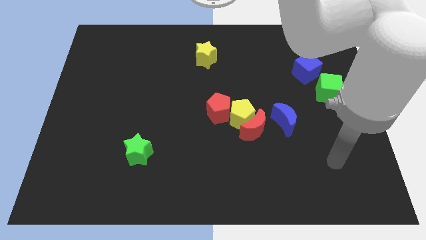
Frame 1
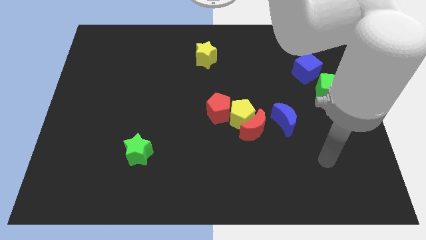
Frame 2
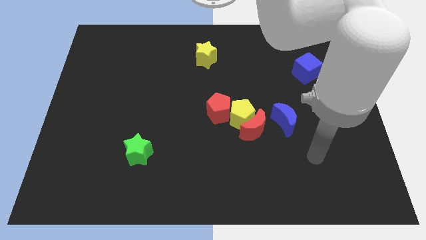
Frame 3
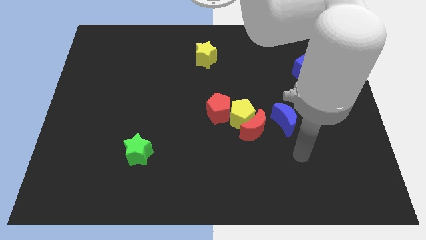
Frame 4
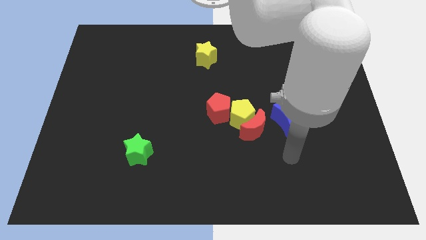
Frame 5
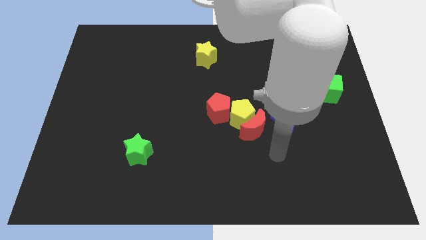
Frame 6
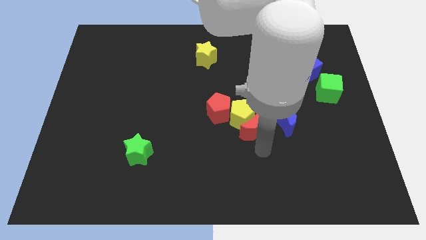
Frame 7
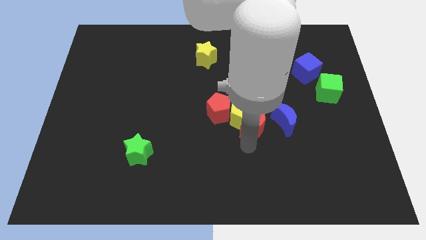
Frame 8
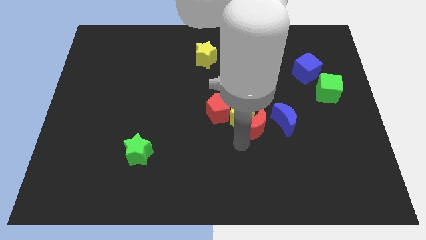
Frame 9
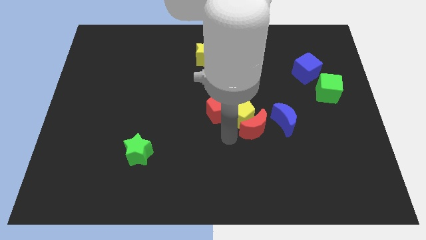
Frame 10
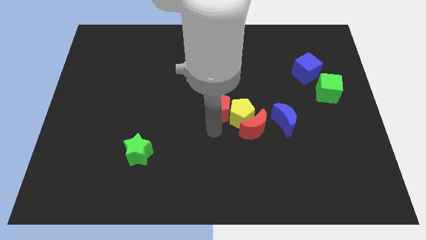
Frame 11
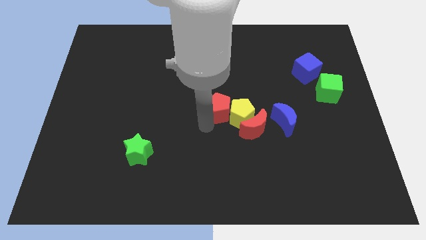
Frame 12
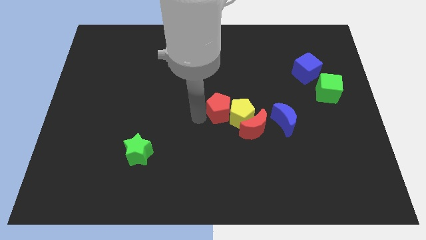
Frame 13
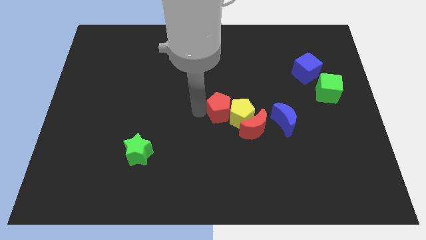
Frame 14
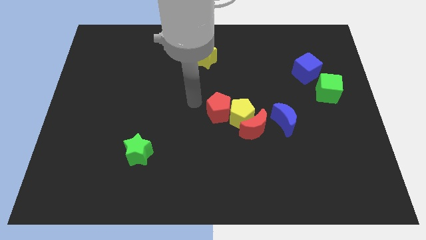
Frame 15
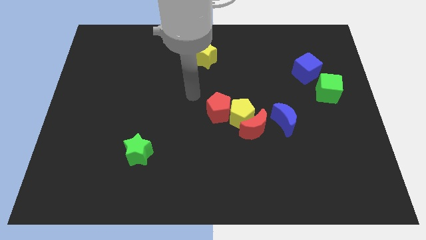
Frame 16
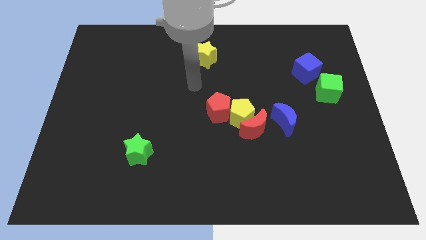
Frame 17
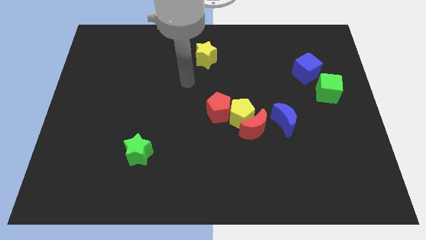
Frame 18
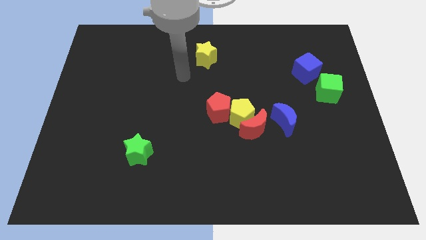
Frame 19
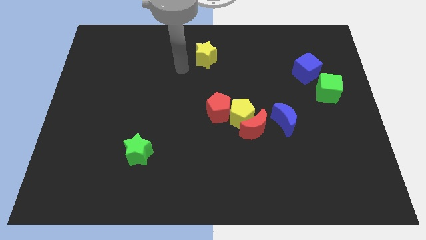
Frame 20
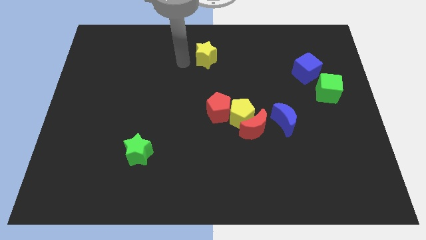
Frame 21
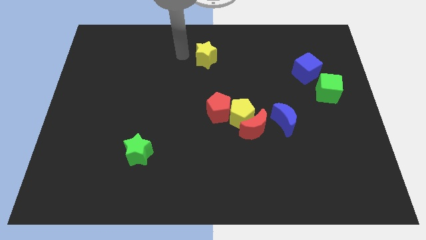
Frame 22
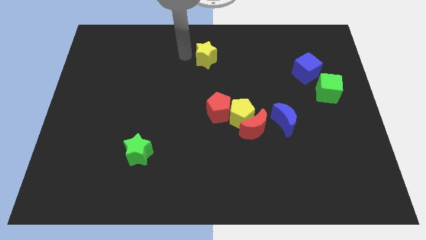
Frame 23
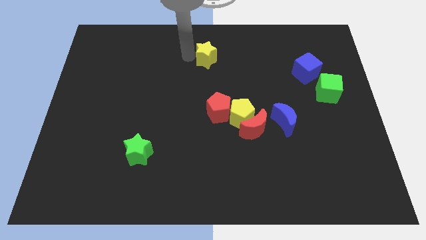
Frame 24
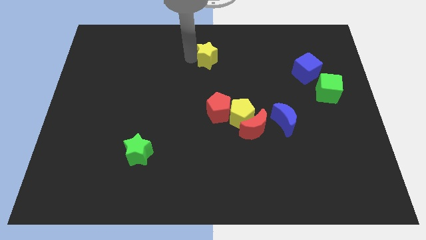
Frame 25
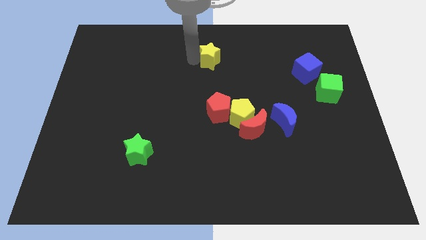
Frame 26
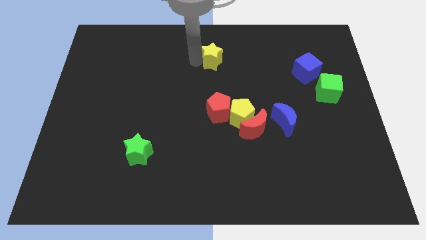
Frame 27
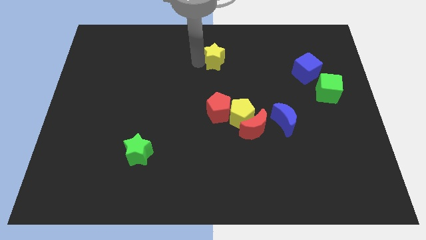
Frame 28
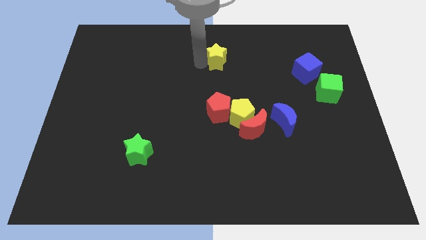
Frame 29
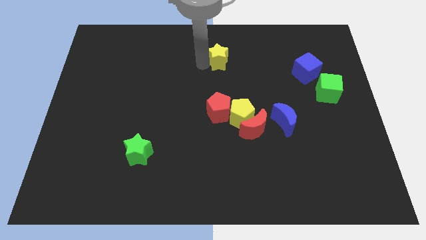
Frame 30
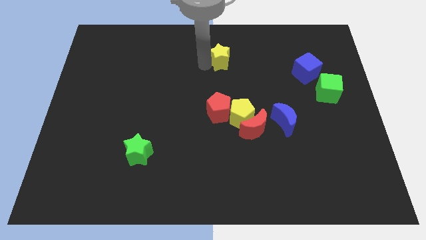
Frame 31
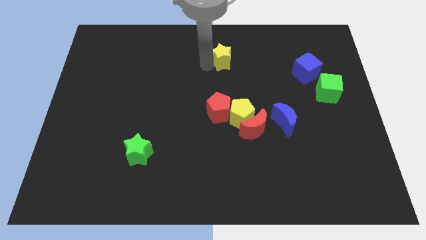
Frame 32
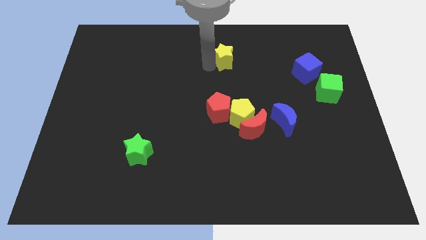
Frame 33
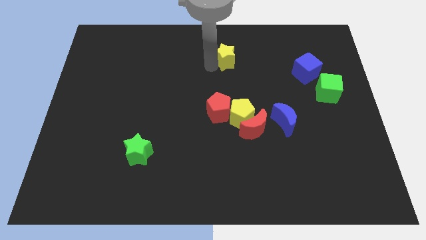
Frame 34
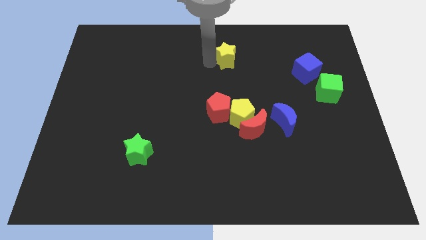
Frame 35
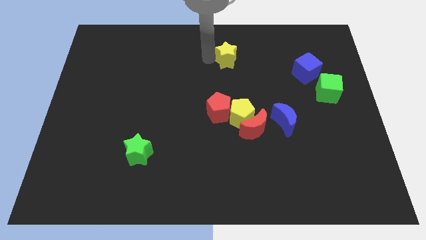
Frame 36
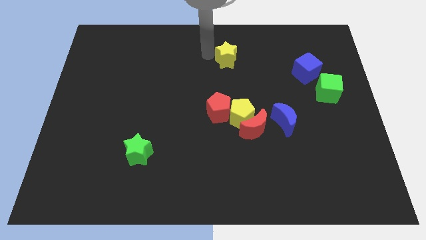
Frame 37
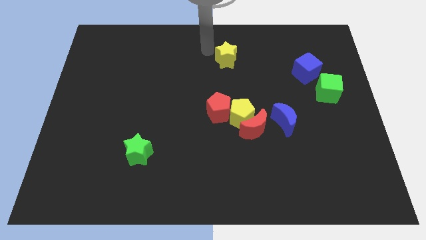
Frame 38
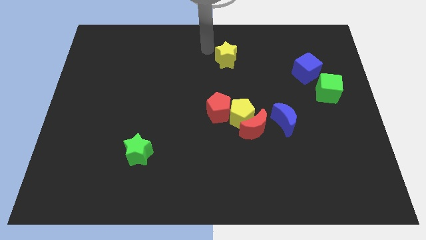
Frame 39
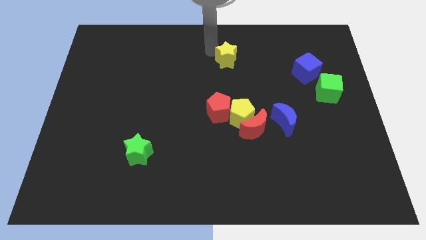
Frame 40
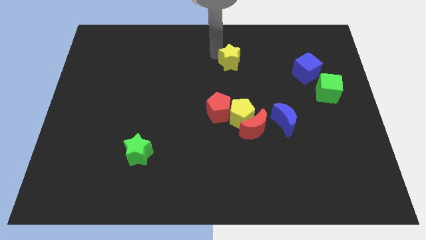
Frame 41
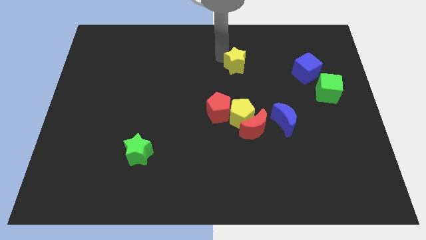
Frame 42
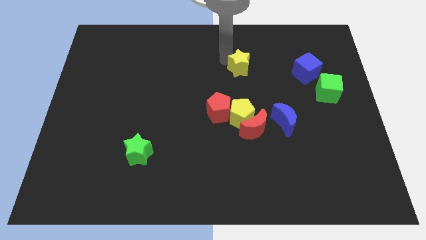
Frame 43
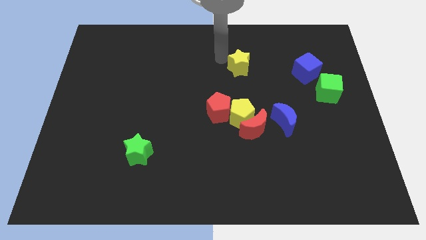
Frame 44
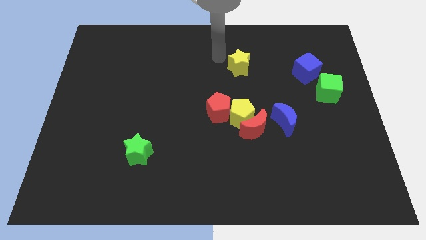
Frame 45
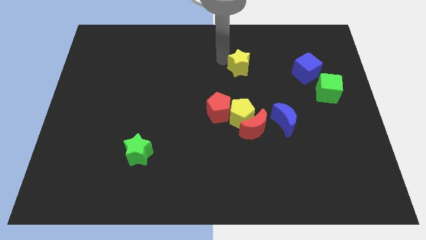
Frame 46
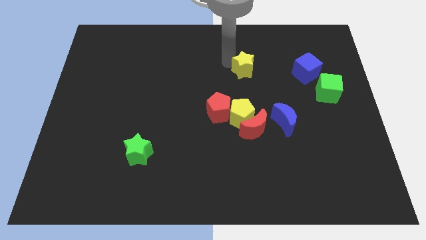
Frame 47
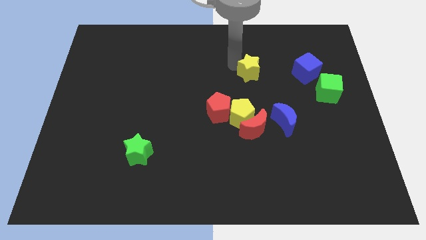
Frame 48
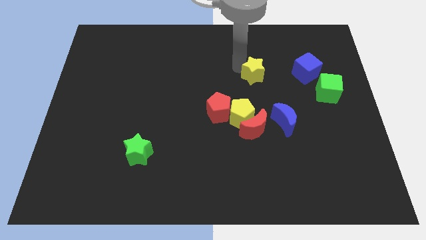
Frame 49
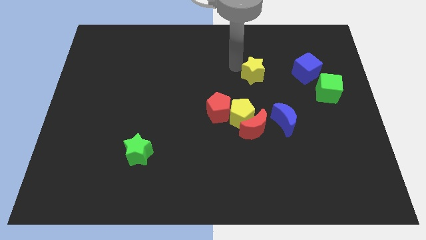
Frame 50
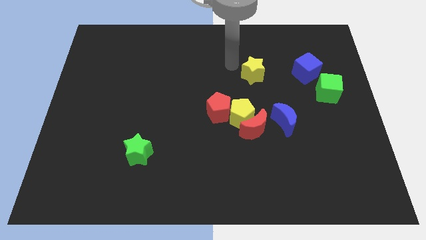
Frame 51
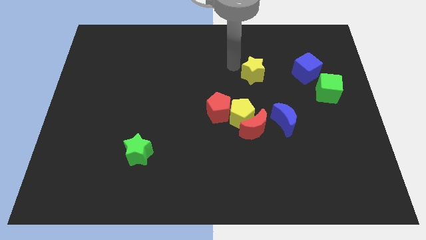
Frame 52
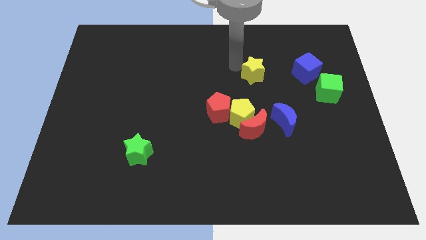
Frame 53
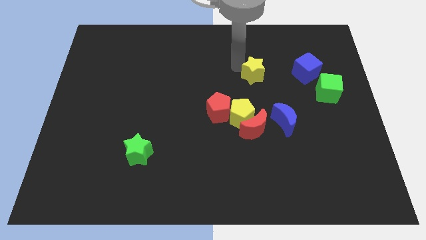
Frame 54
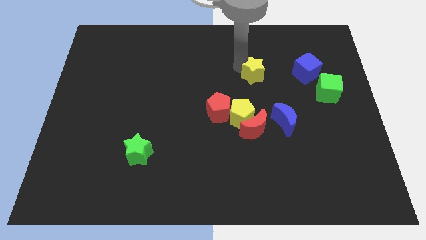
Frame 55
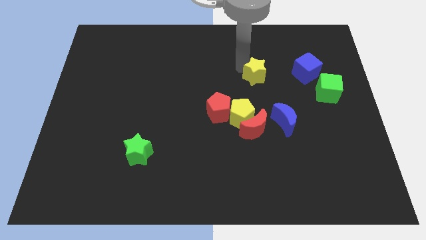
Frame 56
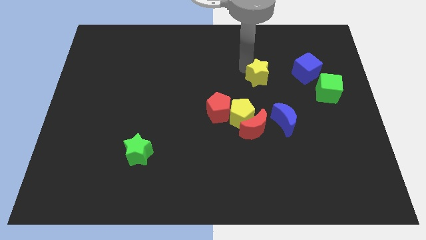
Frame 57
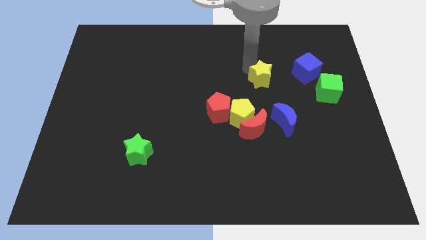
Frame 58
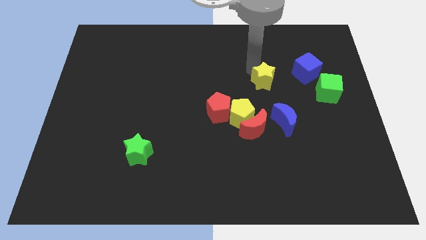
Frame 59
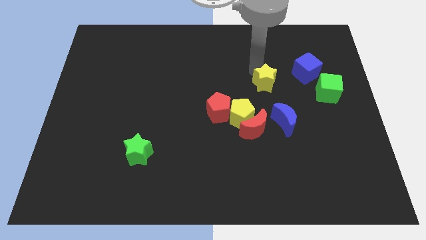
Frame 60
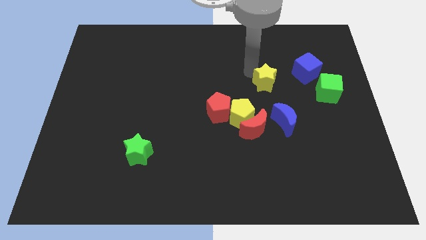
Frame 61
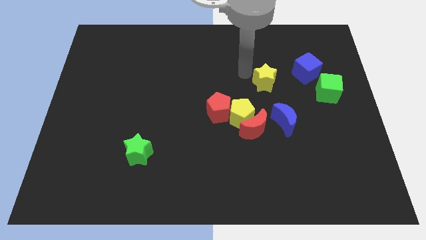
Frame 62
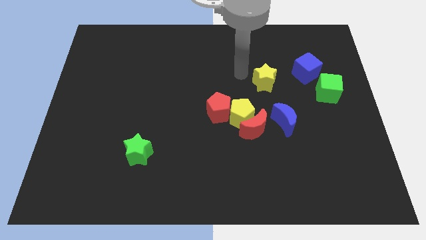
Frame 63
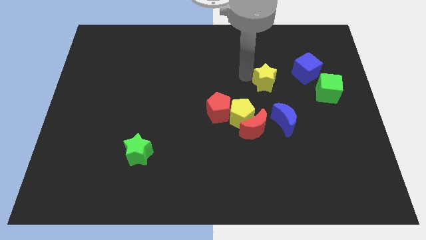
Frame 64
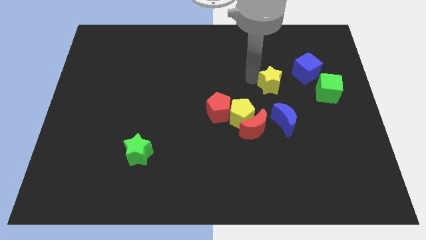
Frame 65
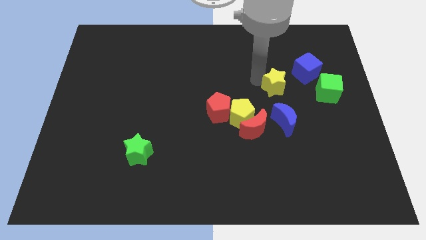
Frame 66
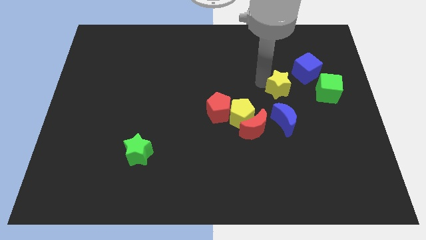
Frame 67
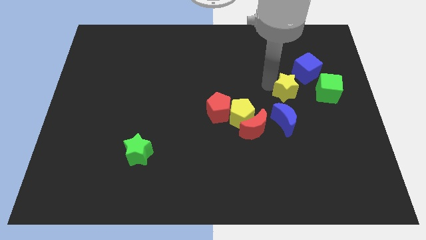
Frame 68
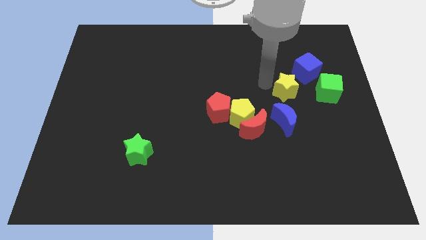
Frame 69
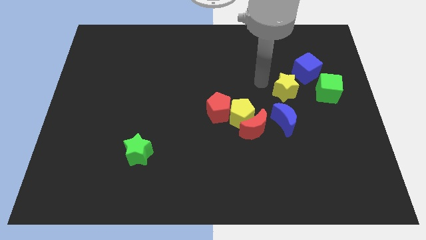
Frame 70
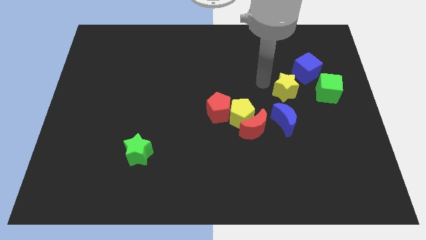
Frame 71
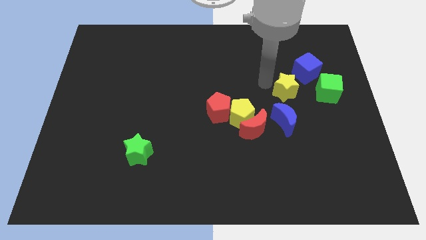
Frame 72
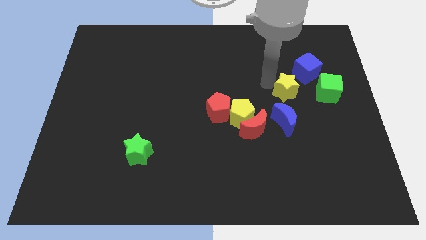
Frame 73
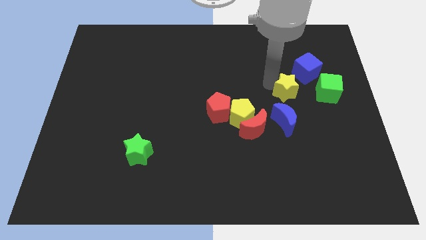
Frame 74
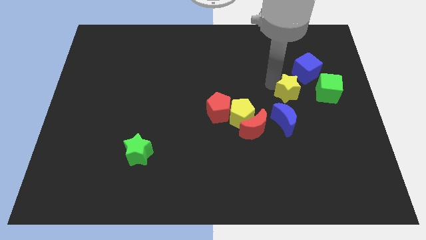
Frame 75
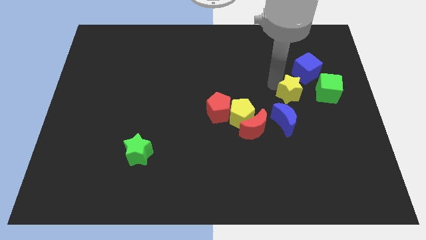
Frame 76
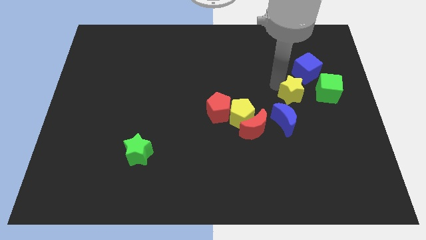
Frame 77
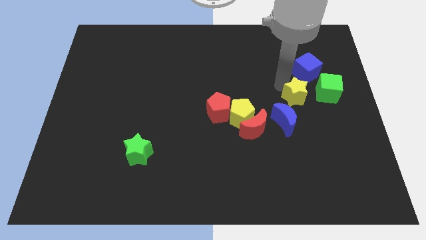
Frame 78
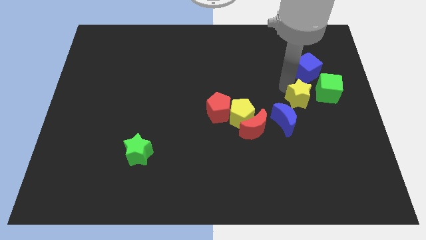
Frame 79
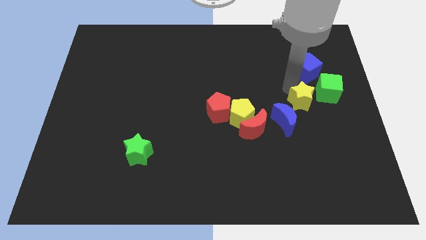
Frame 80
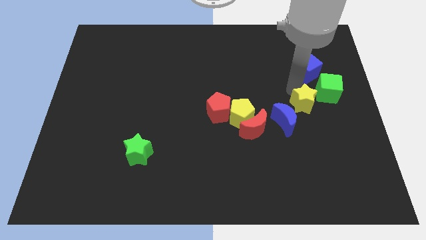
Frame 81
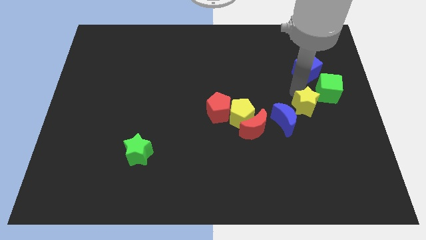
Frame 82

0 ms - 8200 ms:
move the yellow star to the right of the blue moon
